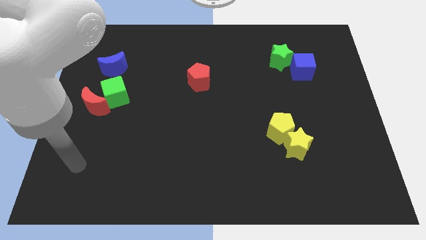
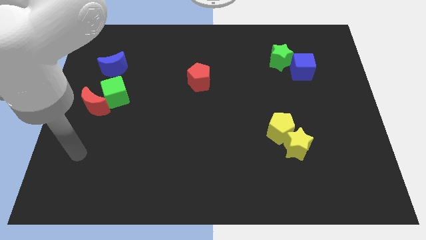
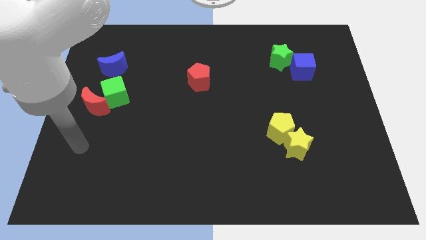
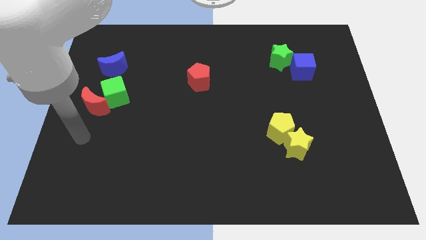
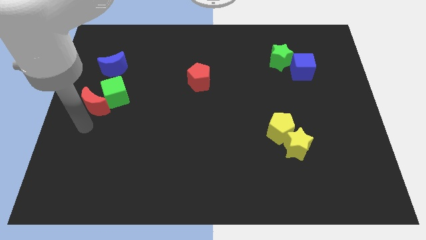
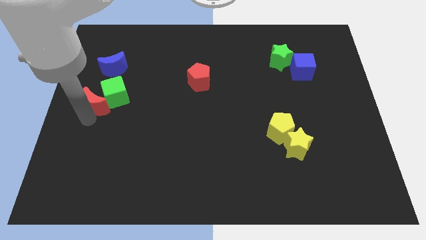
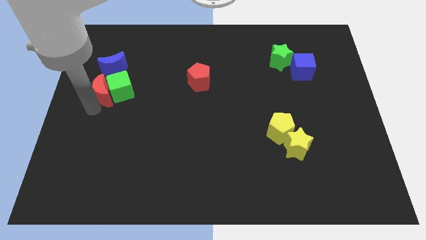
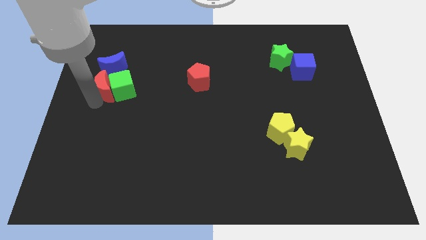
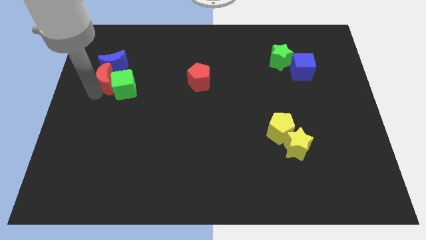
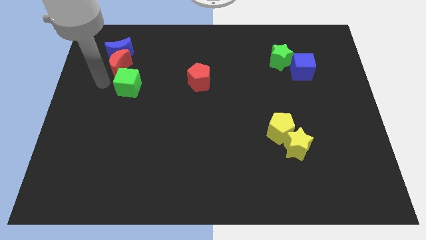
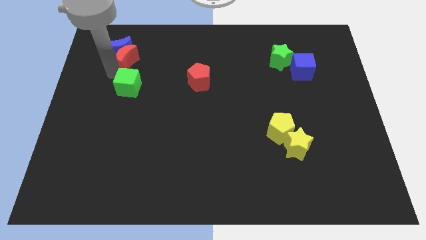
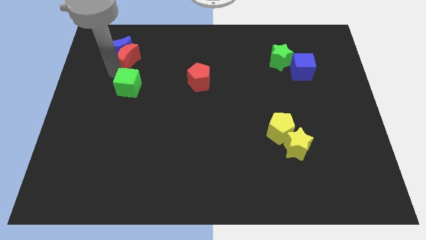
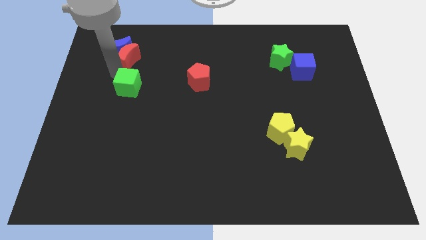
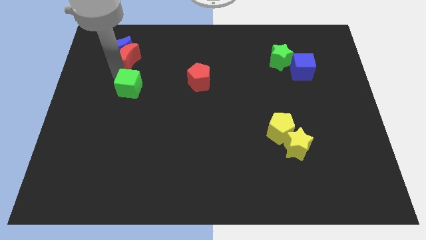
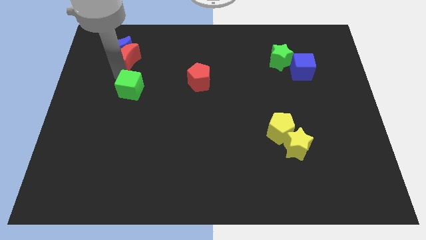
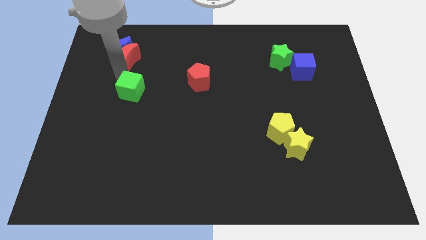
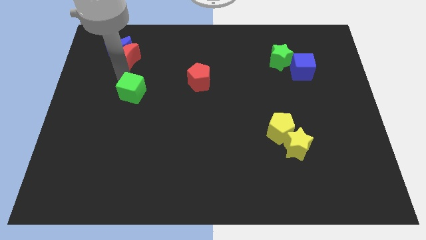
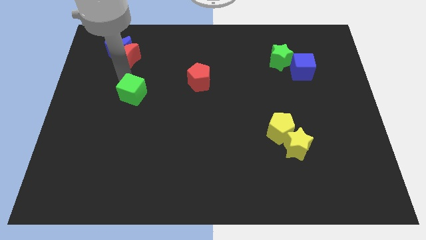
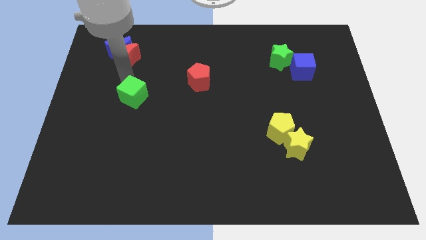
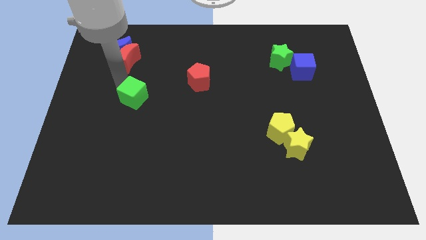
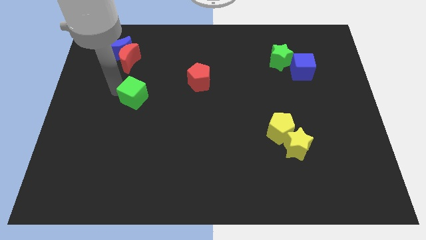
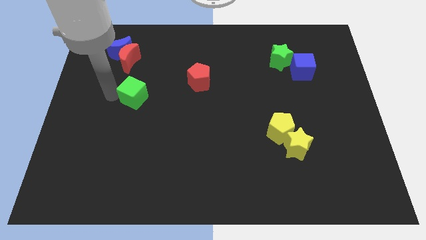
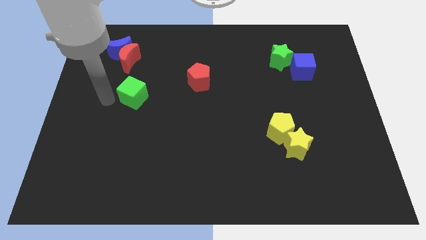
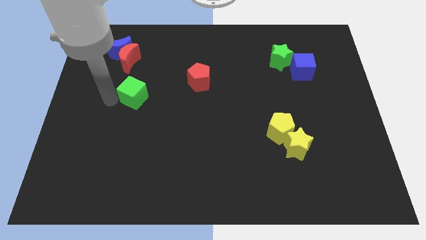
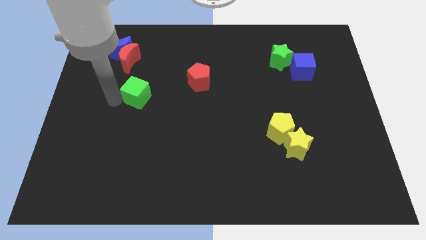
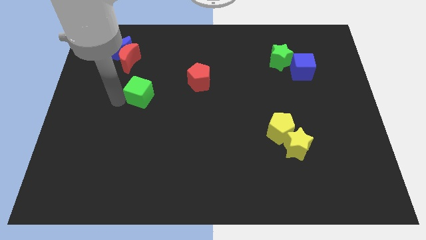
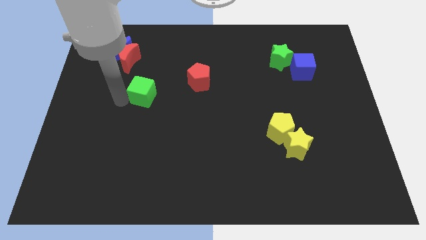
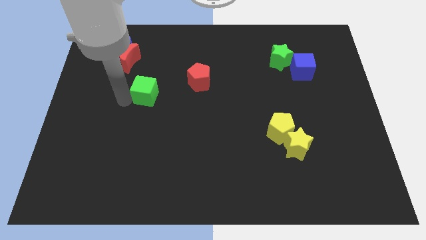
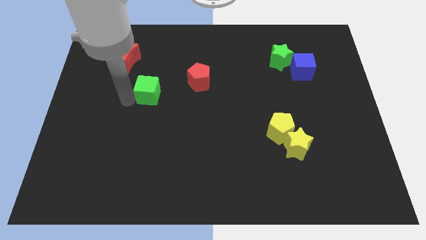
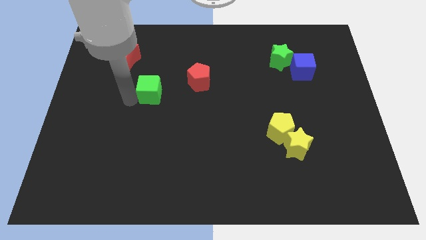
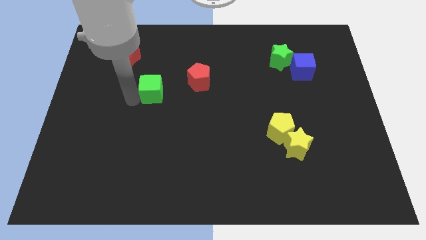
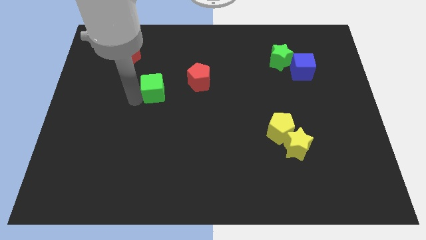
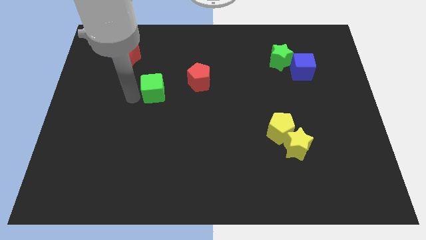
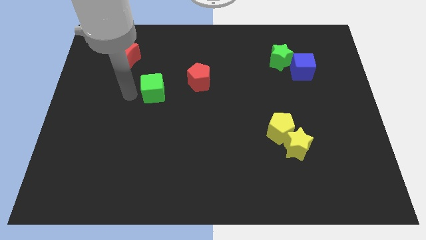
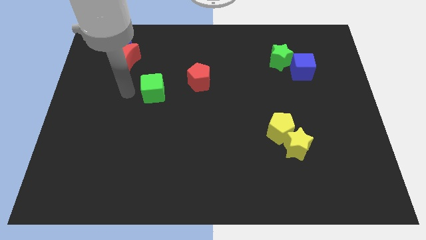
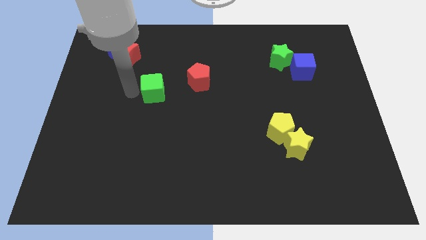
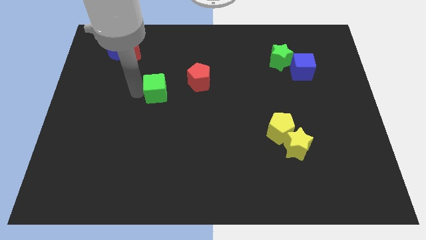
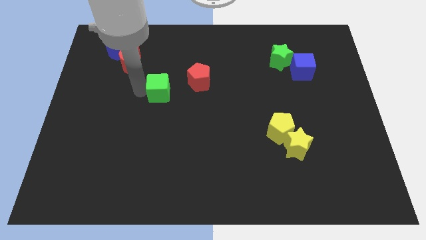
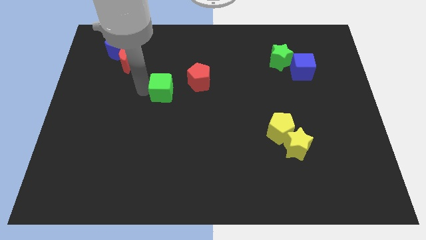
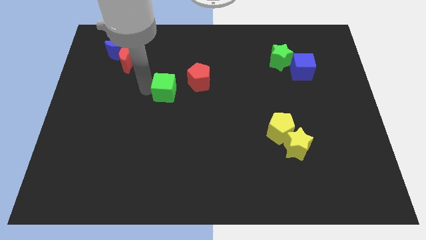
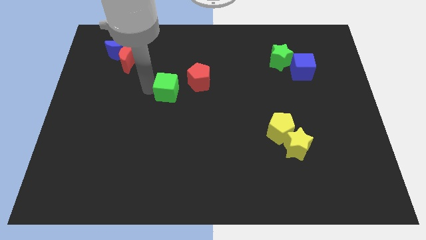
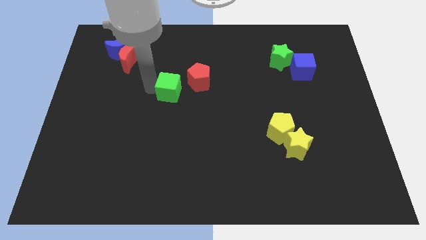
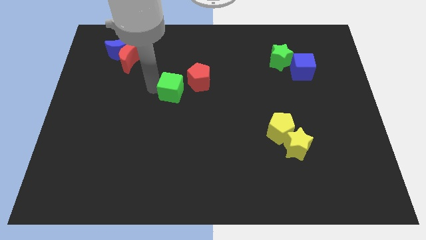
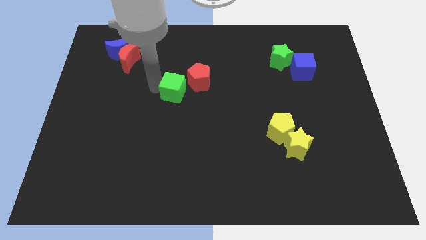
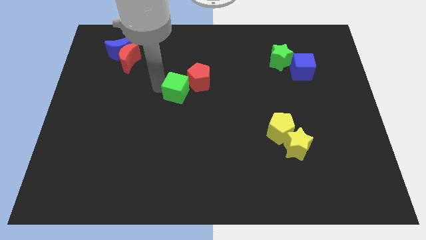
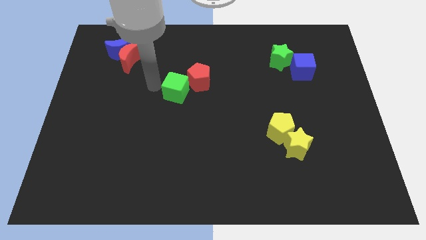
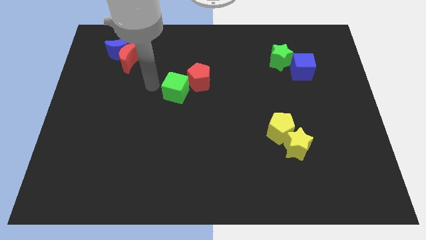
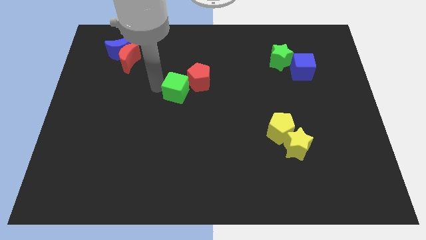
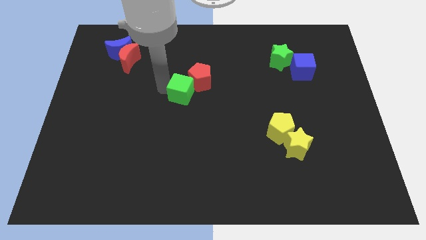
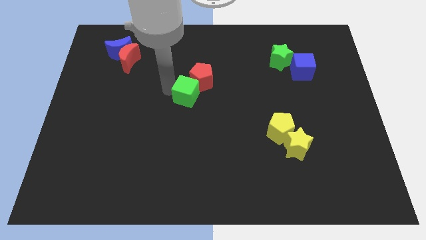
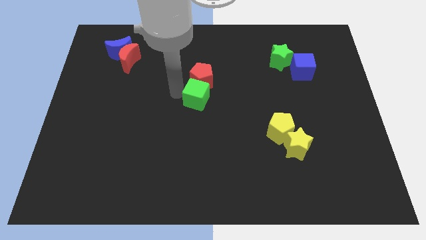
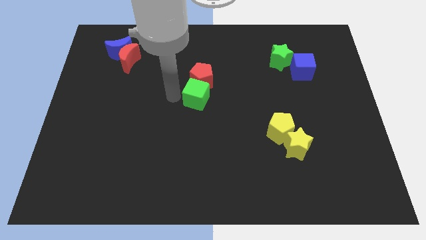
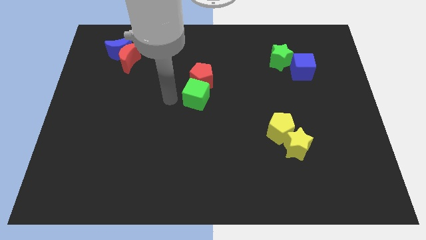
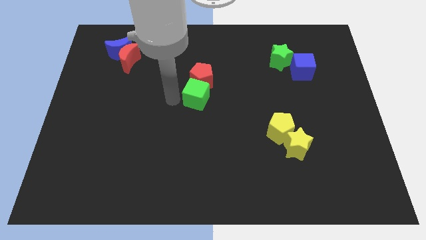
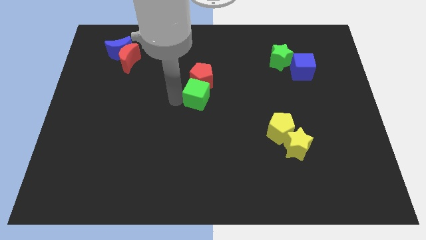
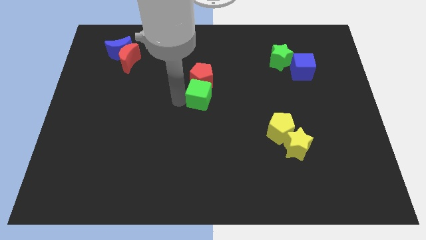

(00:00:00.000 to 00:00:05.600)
move the green cube right

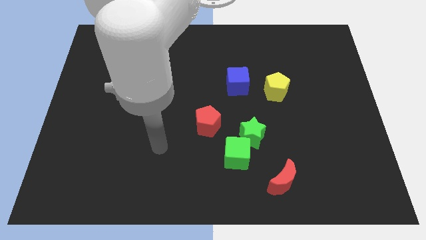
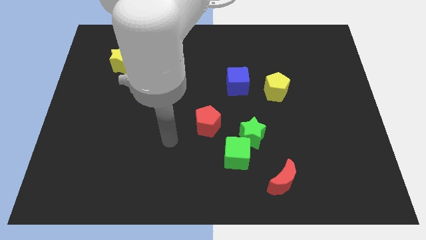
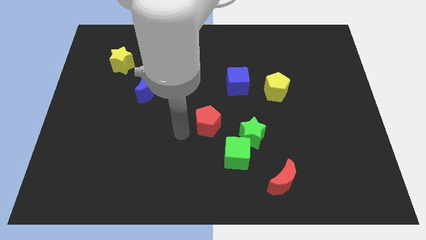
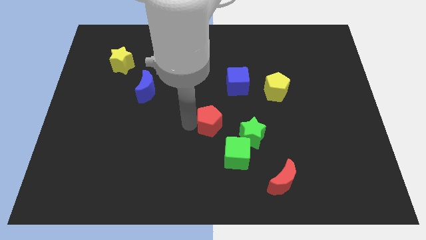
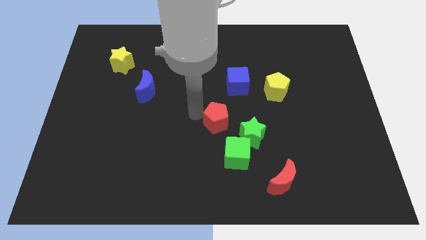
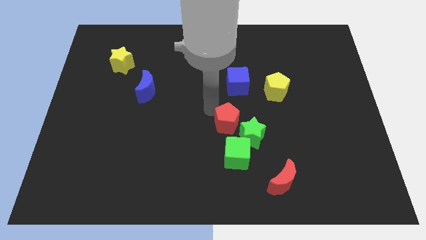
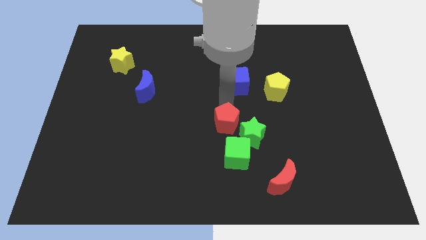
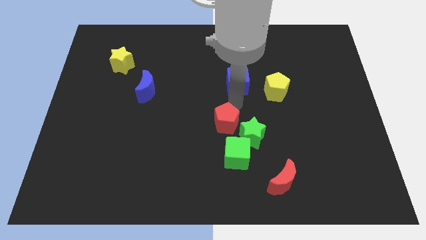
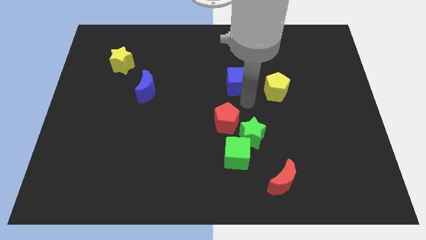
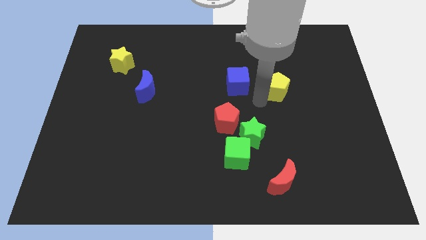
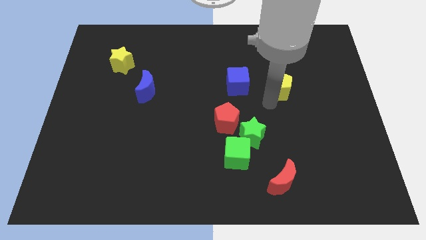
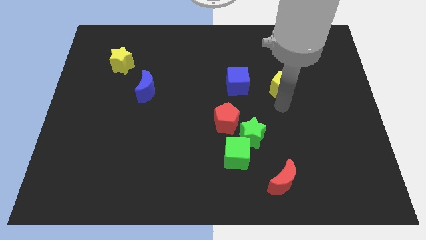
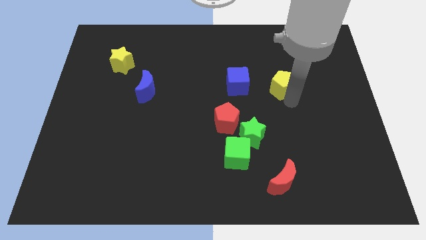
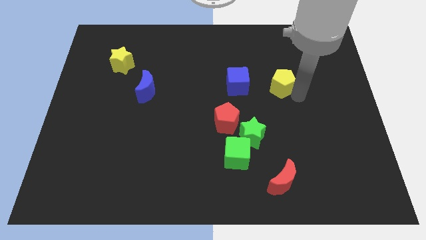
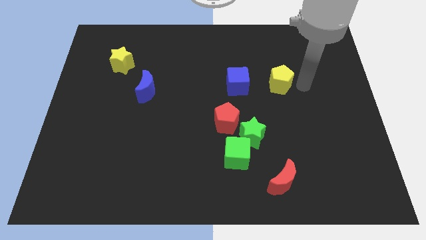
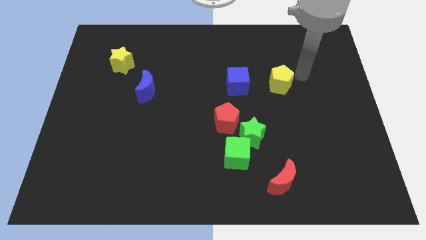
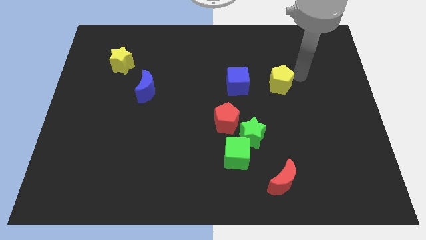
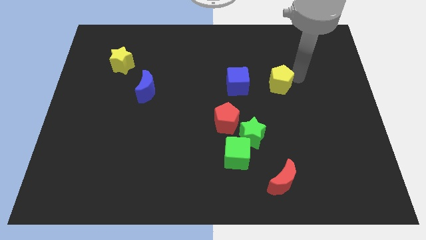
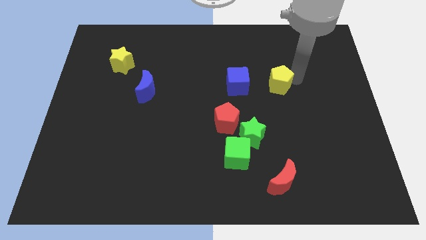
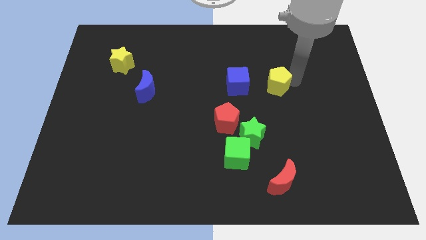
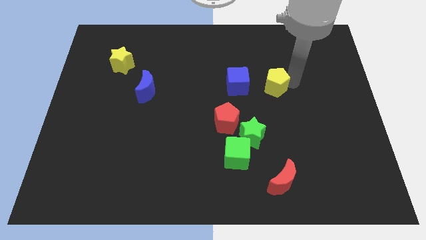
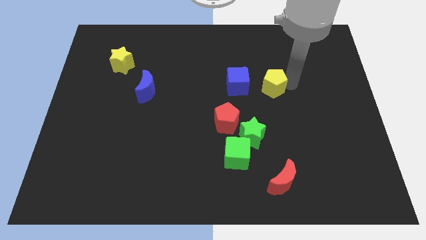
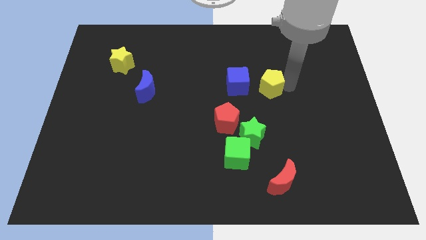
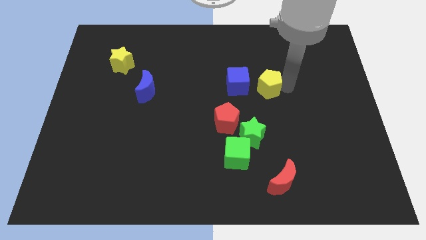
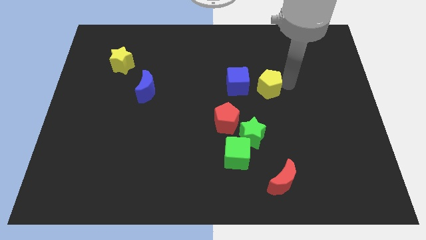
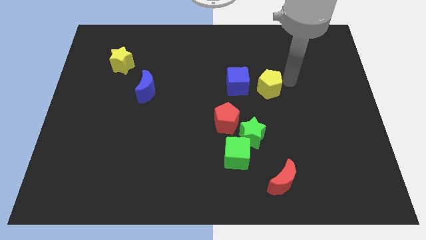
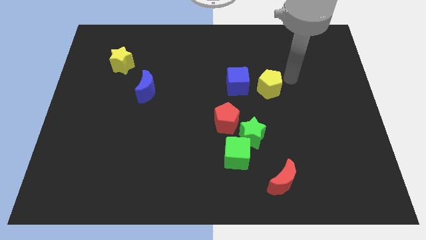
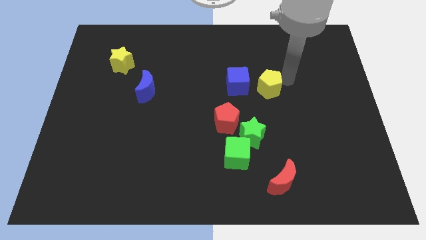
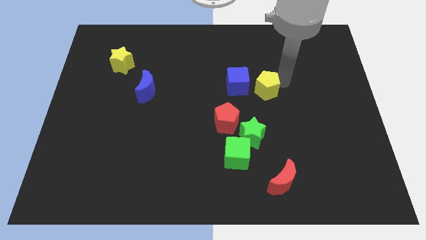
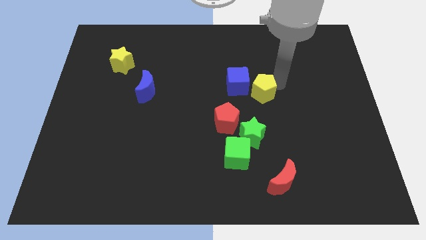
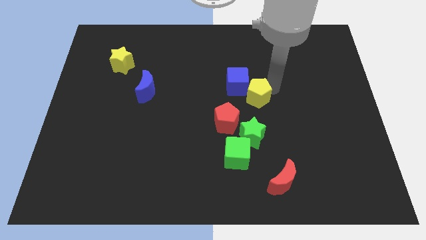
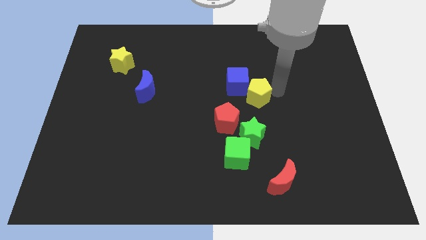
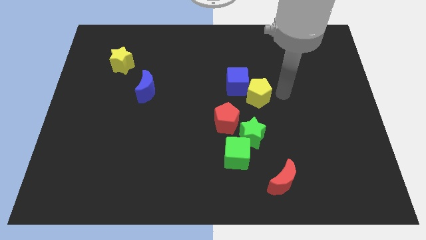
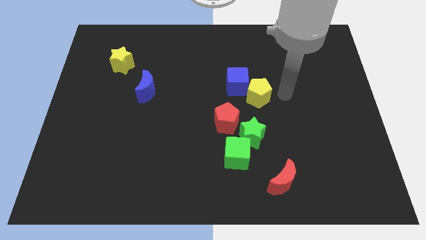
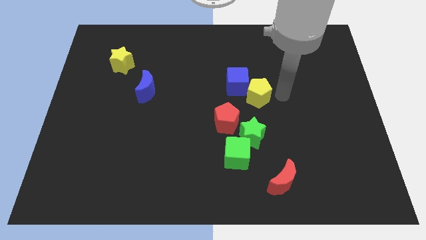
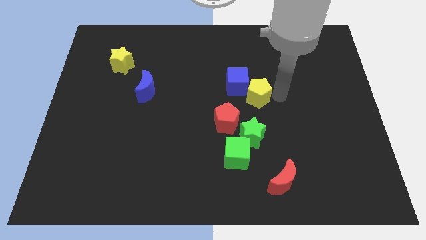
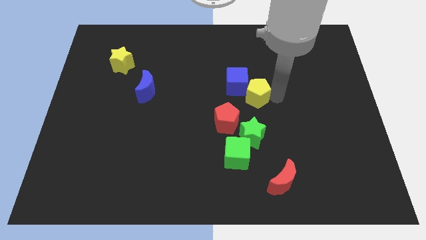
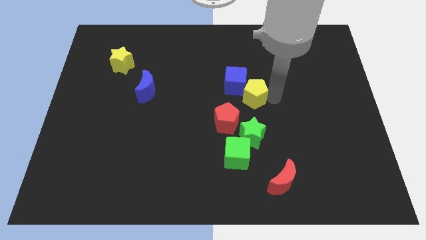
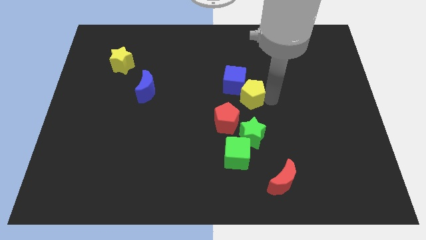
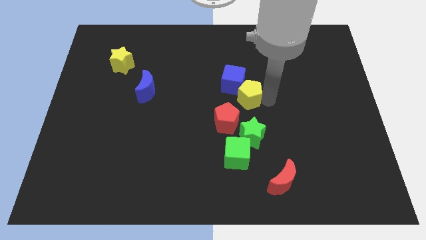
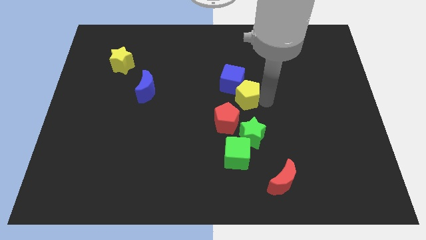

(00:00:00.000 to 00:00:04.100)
push the yellow pentagon a bit to the left
